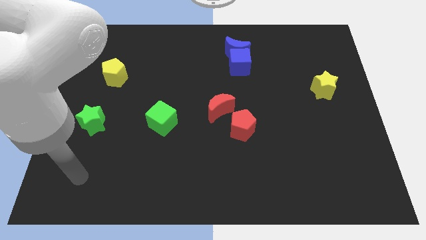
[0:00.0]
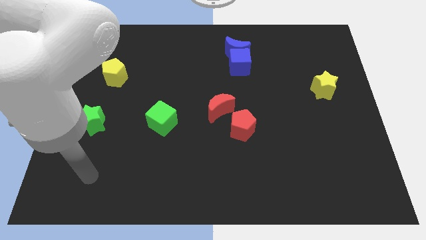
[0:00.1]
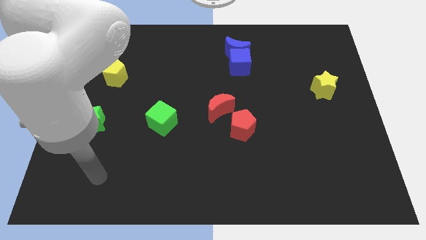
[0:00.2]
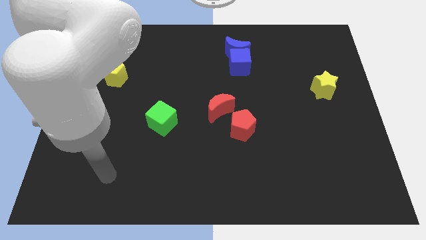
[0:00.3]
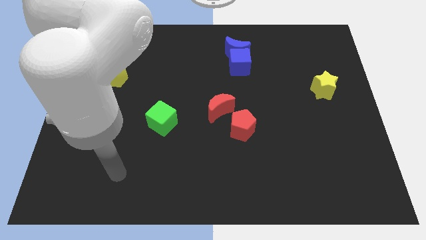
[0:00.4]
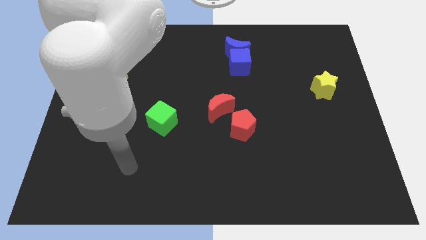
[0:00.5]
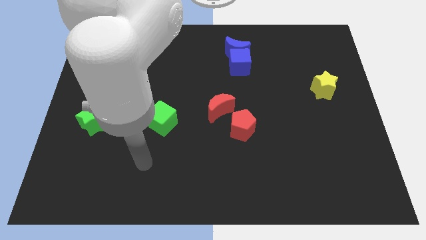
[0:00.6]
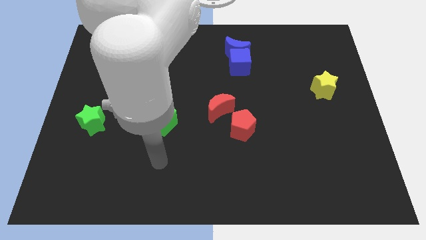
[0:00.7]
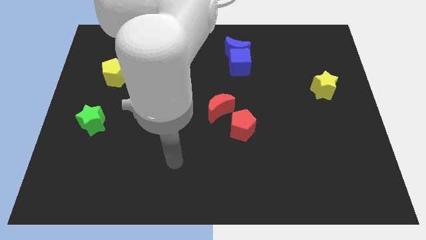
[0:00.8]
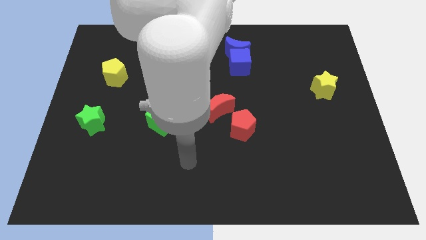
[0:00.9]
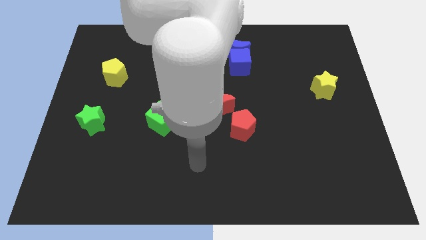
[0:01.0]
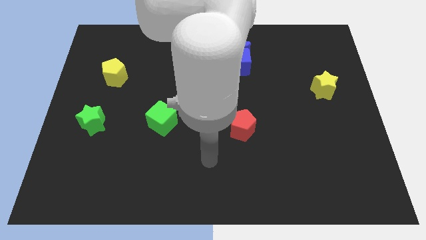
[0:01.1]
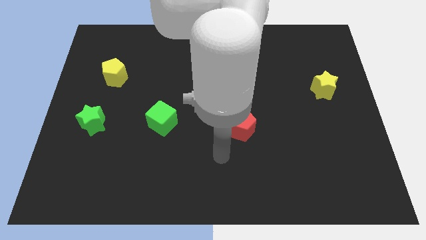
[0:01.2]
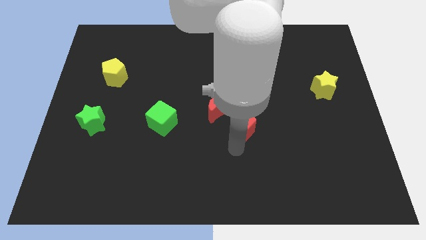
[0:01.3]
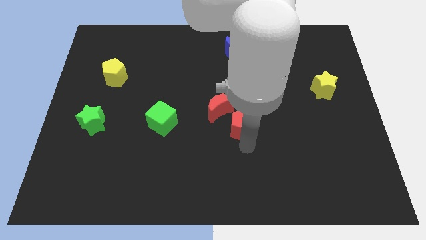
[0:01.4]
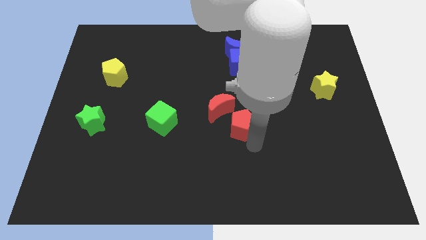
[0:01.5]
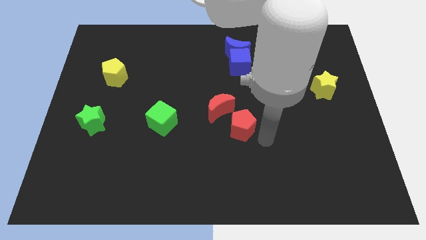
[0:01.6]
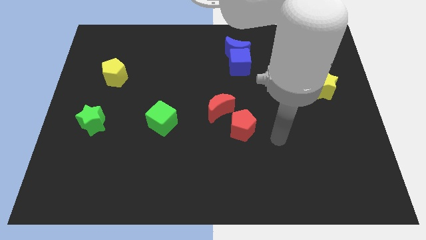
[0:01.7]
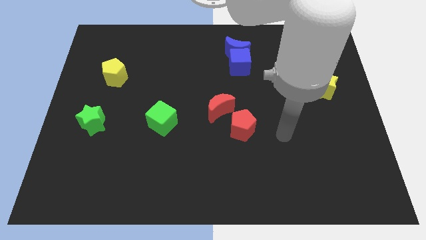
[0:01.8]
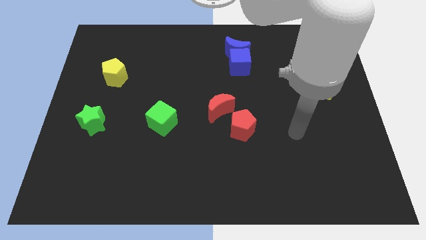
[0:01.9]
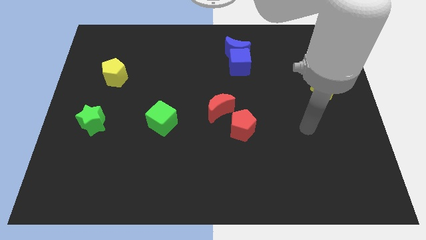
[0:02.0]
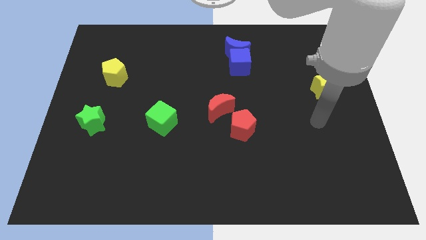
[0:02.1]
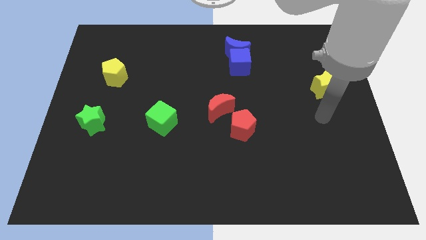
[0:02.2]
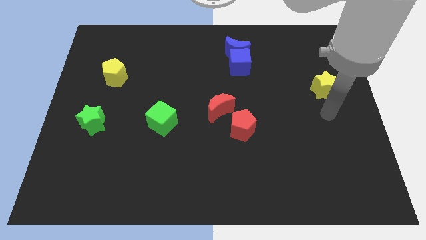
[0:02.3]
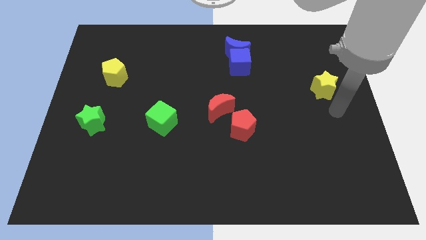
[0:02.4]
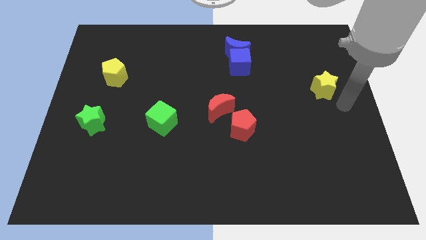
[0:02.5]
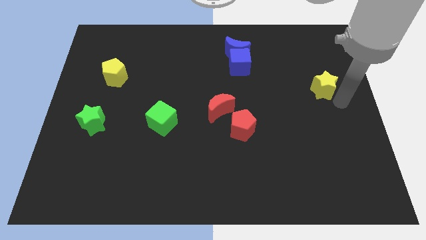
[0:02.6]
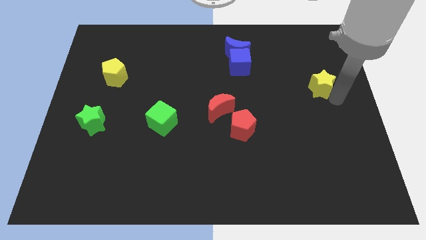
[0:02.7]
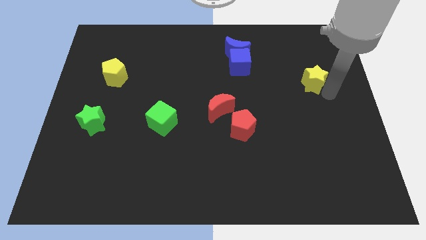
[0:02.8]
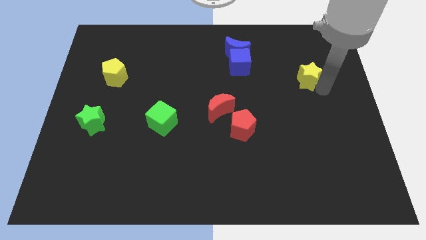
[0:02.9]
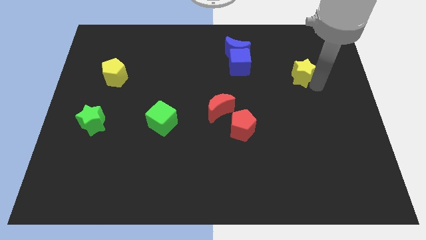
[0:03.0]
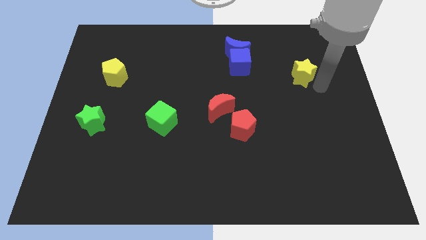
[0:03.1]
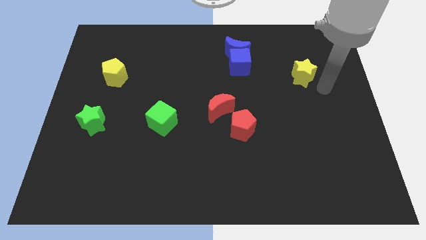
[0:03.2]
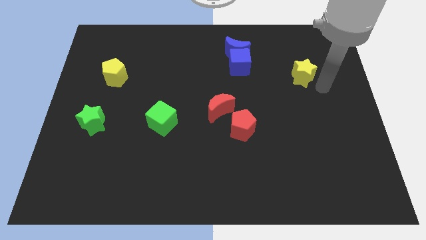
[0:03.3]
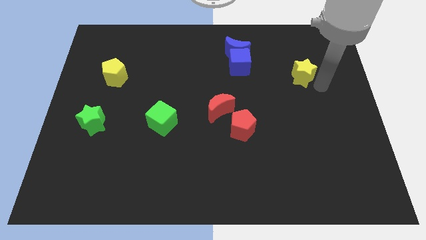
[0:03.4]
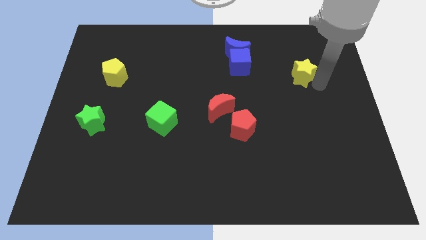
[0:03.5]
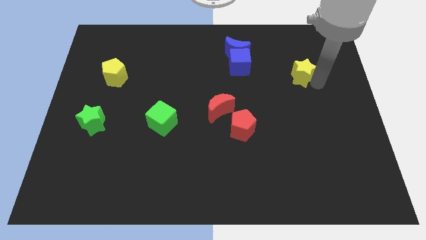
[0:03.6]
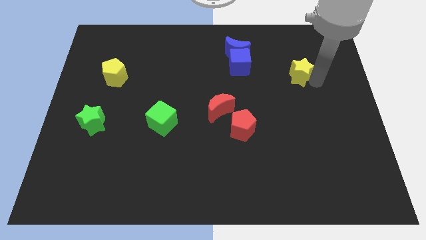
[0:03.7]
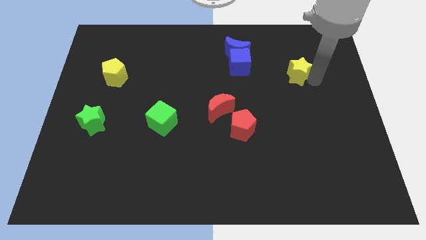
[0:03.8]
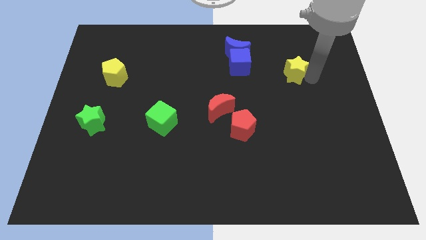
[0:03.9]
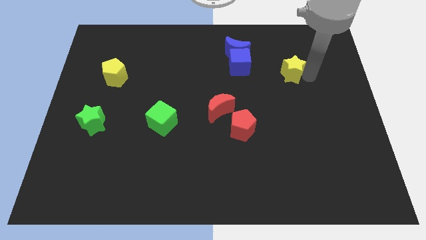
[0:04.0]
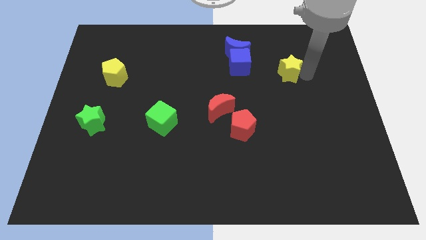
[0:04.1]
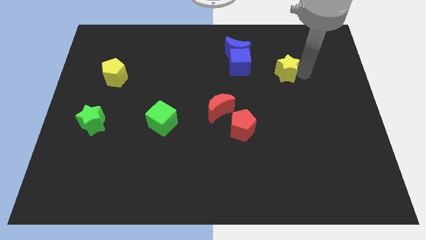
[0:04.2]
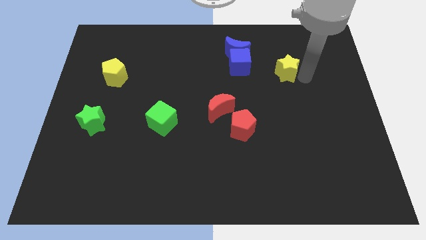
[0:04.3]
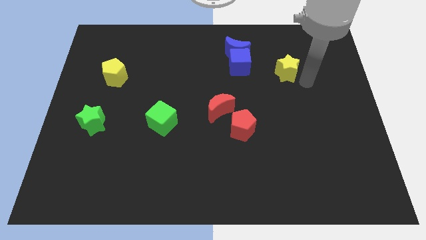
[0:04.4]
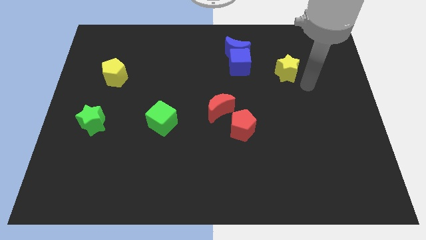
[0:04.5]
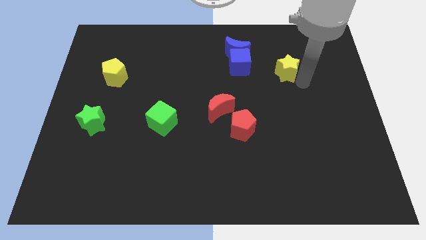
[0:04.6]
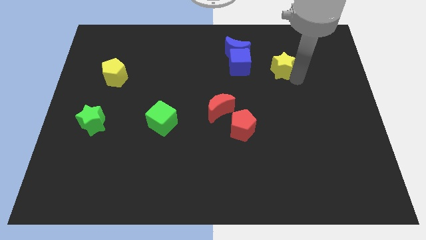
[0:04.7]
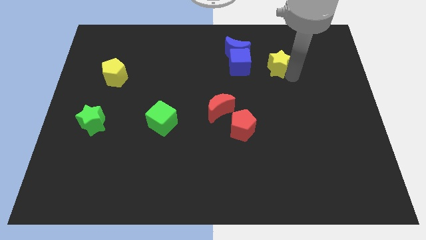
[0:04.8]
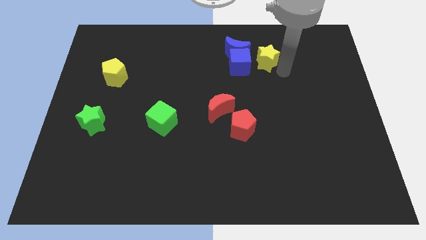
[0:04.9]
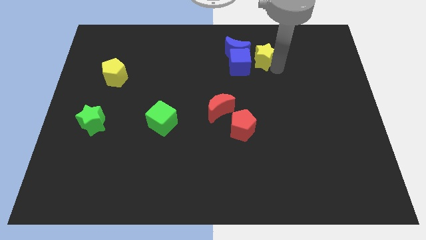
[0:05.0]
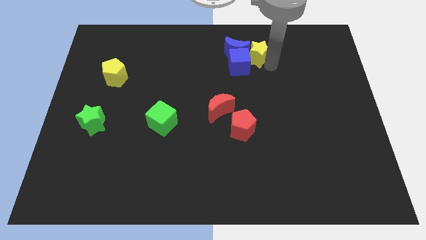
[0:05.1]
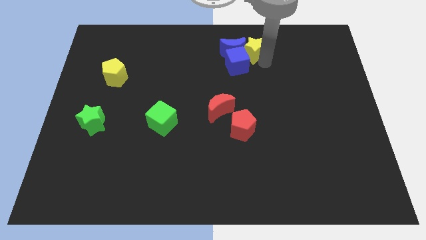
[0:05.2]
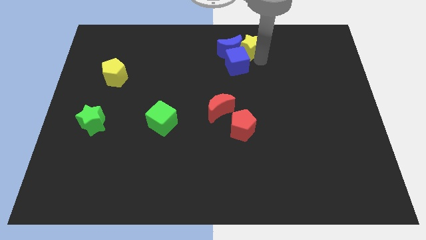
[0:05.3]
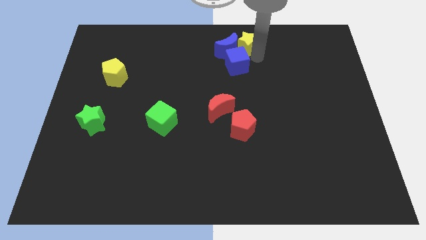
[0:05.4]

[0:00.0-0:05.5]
put the yellow star to the top side

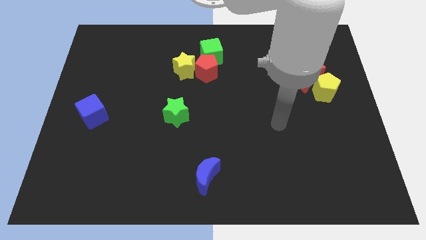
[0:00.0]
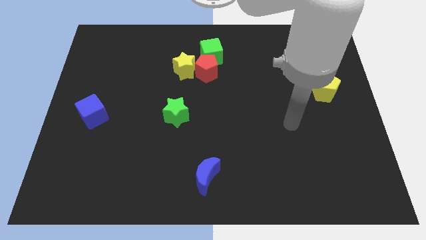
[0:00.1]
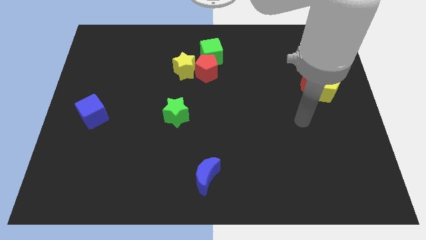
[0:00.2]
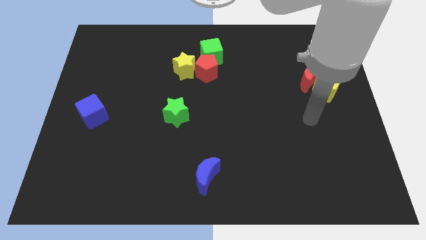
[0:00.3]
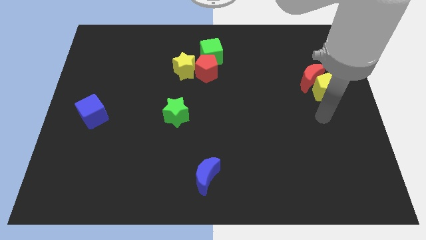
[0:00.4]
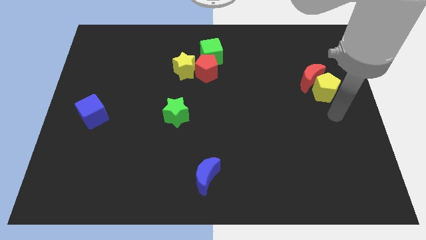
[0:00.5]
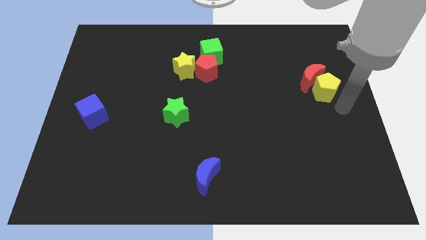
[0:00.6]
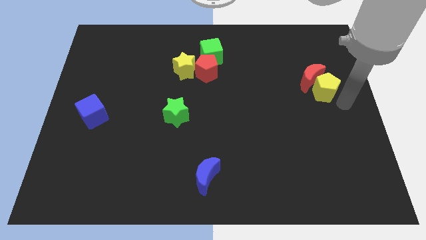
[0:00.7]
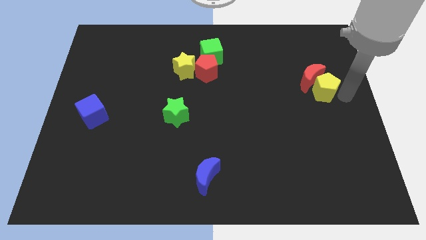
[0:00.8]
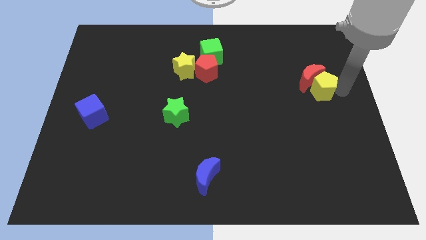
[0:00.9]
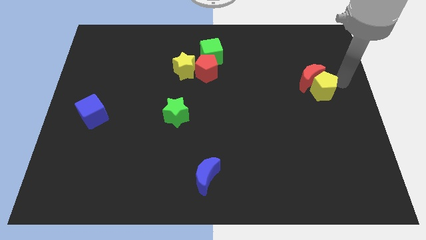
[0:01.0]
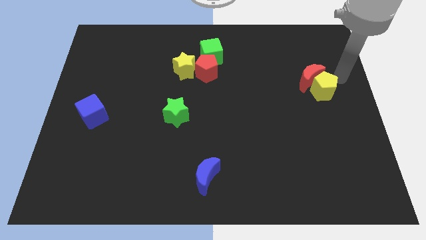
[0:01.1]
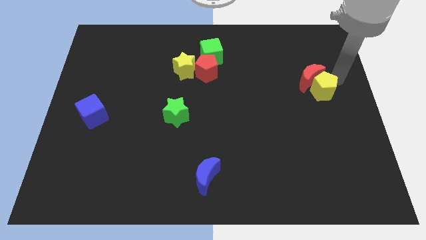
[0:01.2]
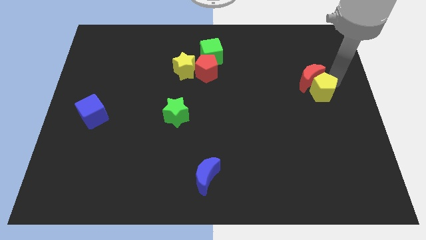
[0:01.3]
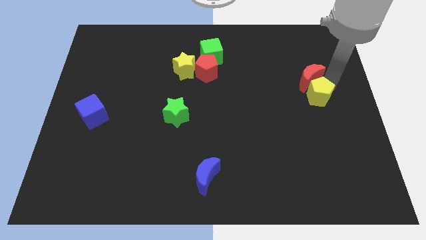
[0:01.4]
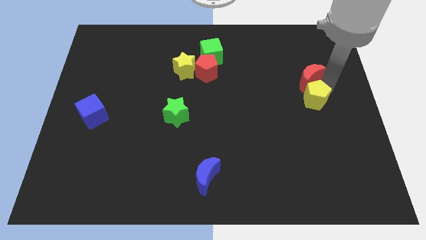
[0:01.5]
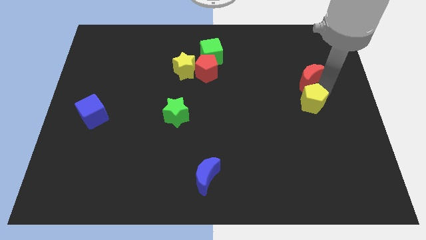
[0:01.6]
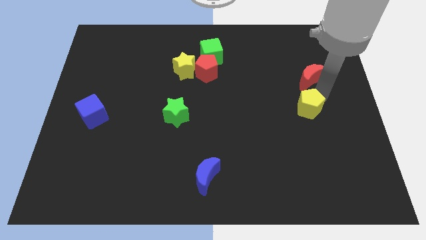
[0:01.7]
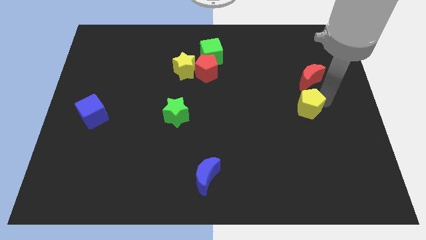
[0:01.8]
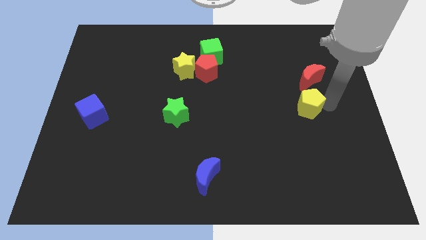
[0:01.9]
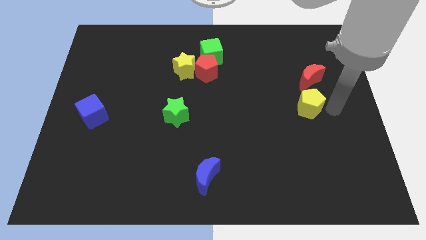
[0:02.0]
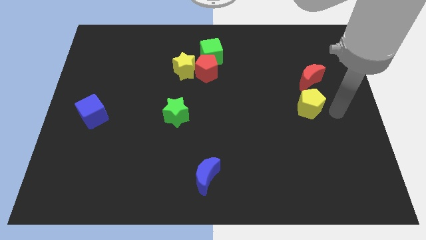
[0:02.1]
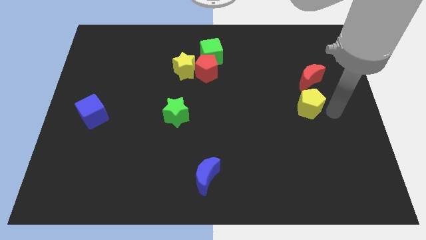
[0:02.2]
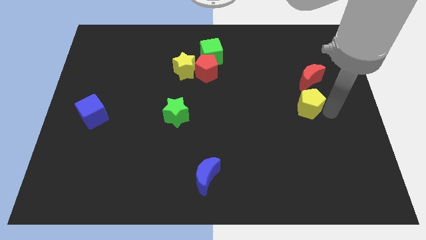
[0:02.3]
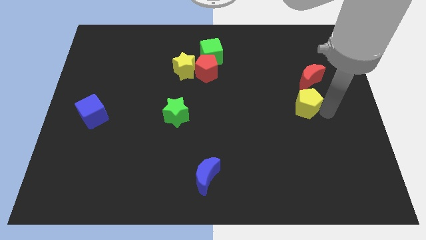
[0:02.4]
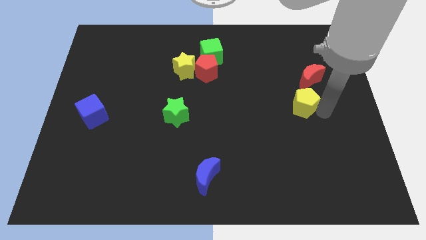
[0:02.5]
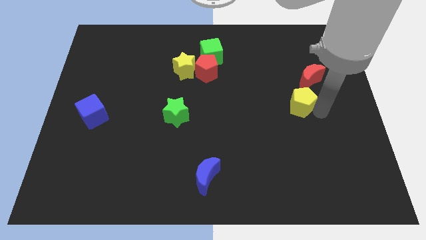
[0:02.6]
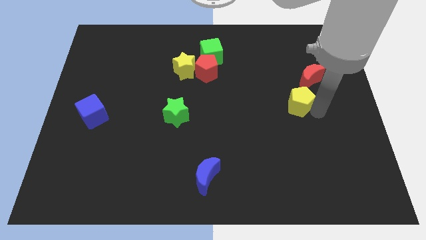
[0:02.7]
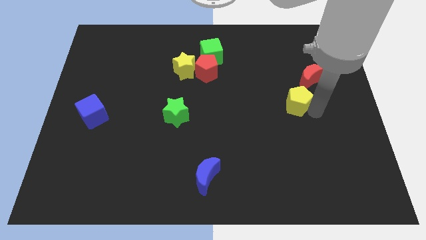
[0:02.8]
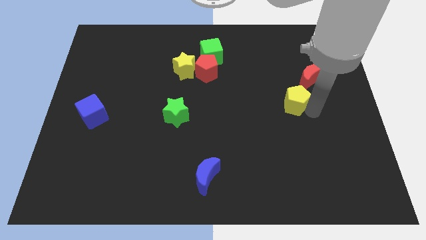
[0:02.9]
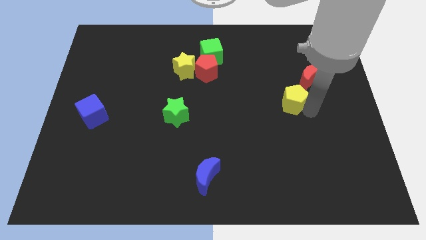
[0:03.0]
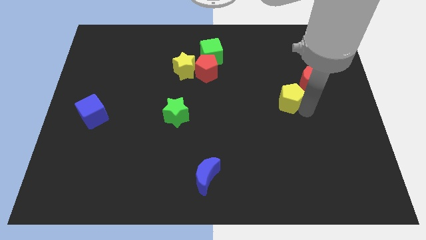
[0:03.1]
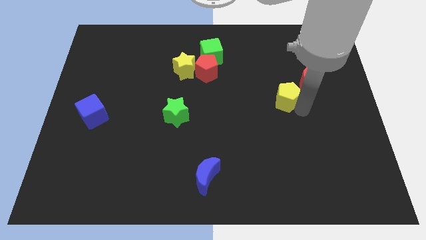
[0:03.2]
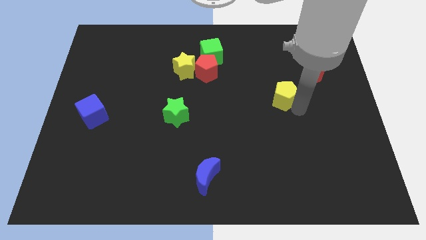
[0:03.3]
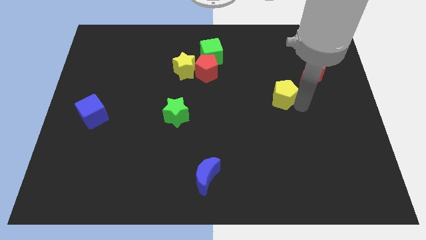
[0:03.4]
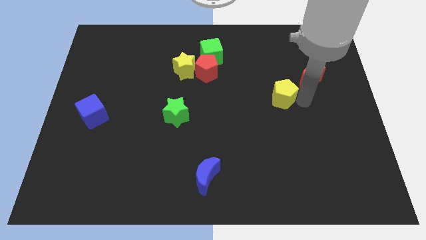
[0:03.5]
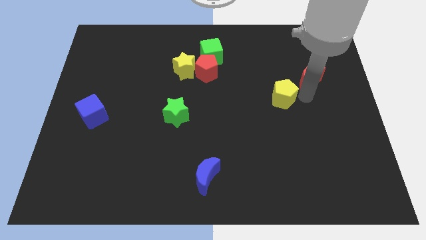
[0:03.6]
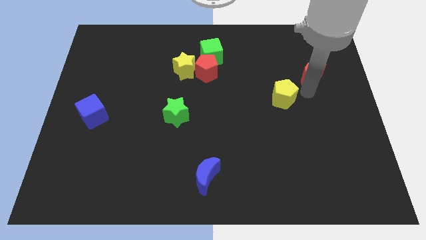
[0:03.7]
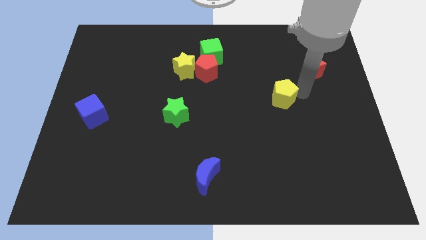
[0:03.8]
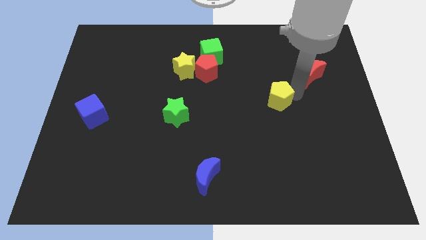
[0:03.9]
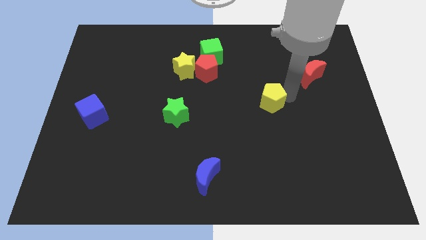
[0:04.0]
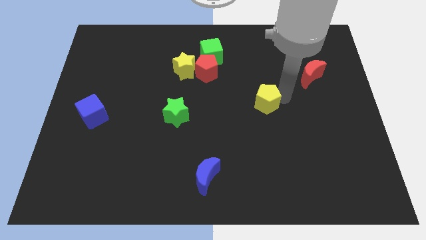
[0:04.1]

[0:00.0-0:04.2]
push the yellow pentagon to the middle
